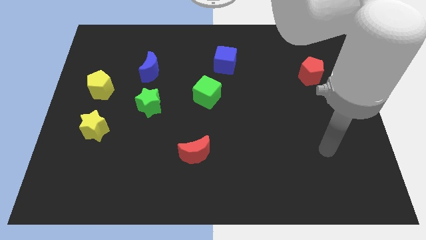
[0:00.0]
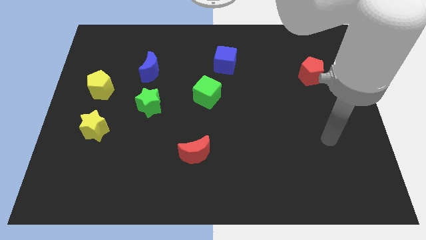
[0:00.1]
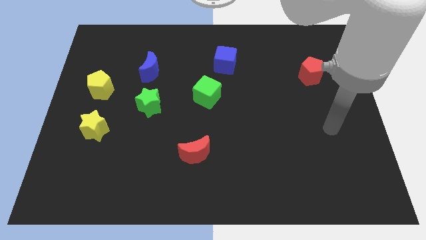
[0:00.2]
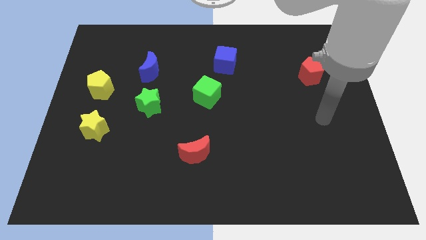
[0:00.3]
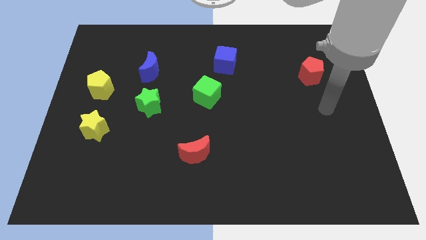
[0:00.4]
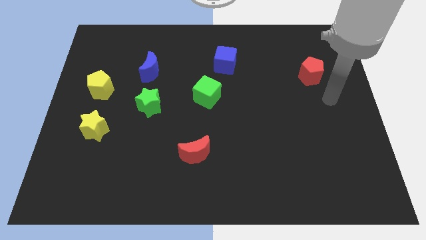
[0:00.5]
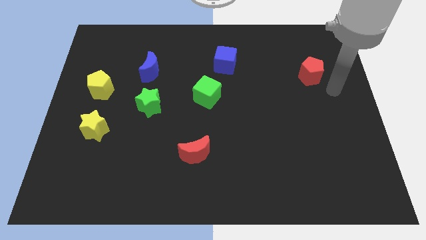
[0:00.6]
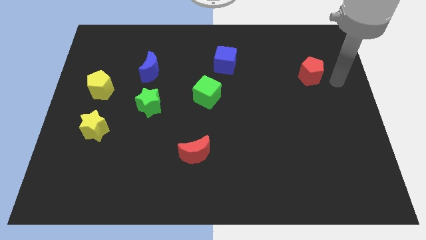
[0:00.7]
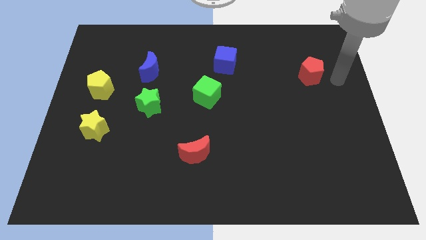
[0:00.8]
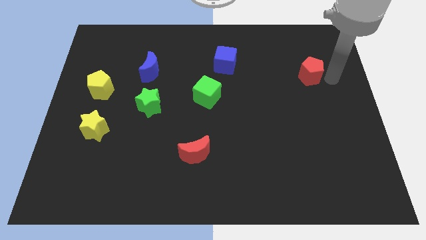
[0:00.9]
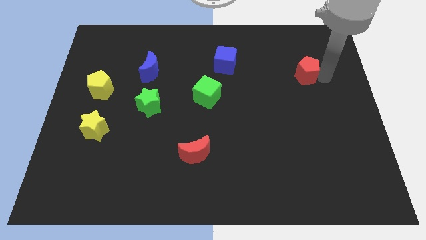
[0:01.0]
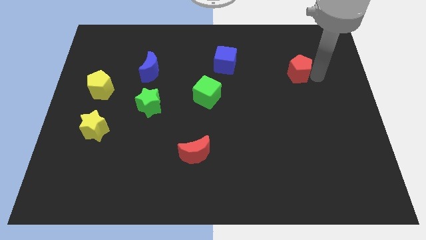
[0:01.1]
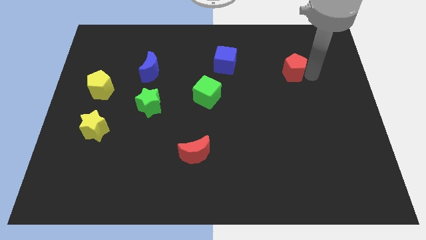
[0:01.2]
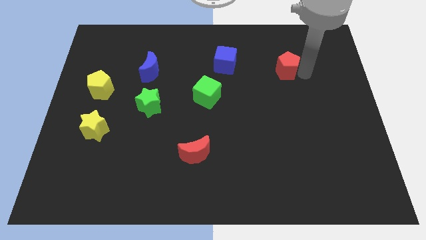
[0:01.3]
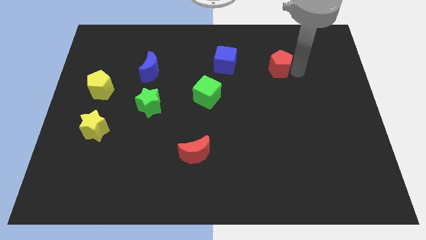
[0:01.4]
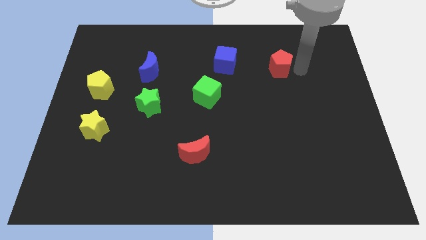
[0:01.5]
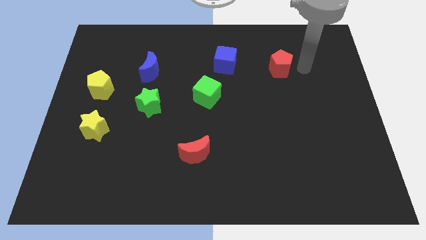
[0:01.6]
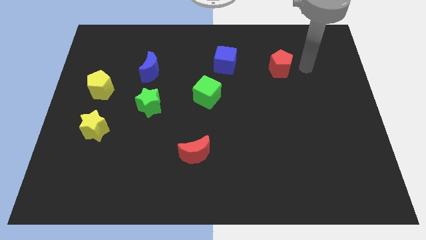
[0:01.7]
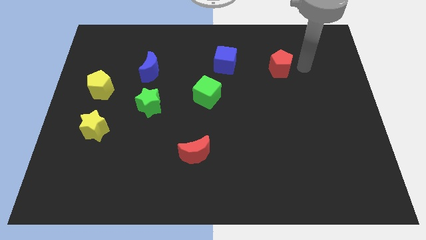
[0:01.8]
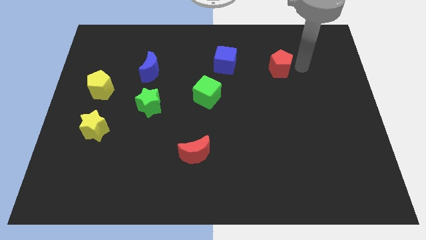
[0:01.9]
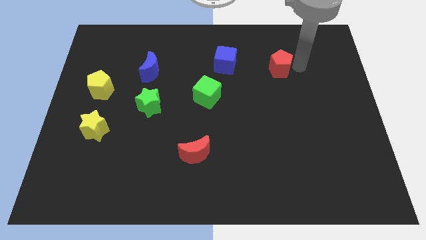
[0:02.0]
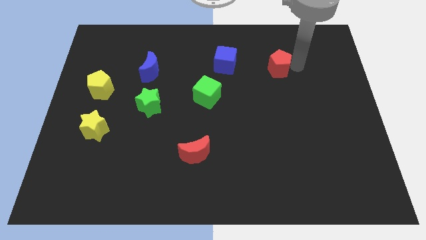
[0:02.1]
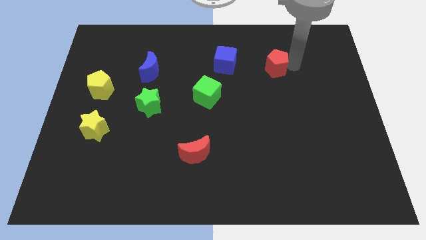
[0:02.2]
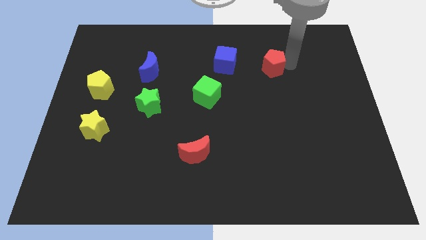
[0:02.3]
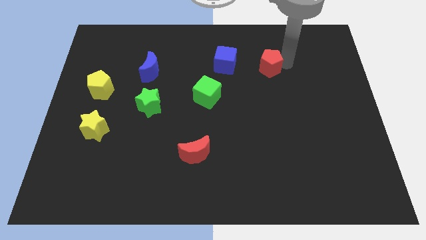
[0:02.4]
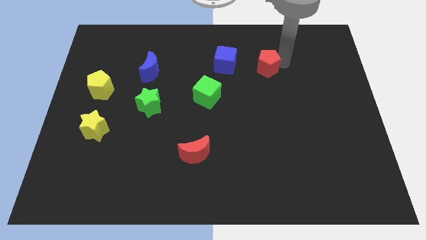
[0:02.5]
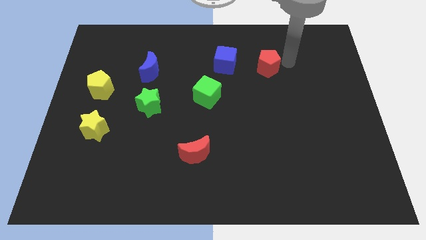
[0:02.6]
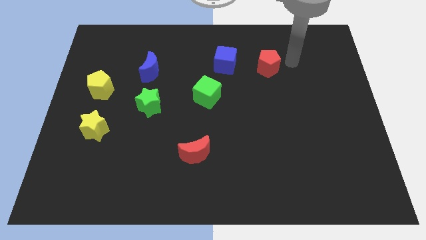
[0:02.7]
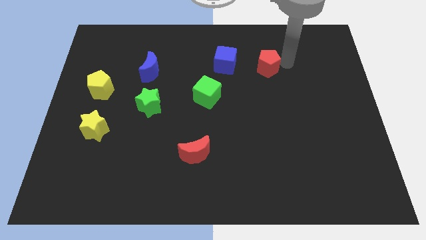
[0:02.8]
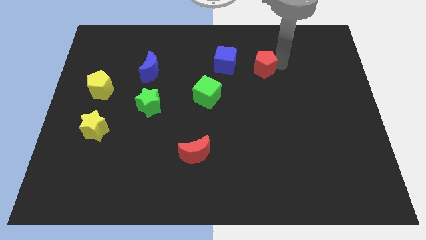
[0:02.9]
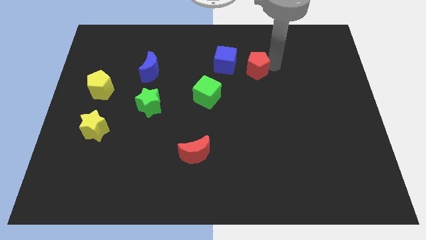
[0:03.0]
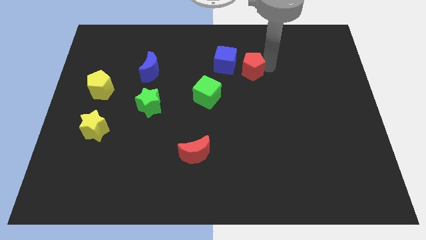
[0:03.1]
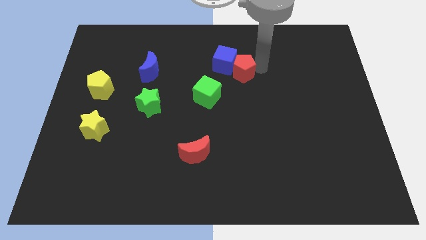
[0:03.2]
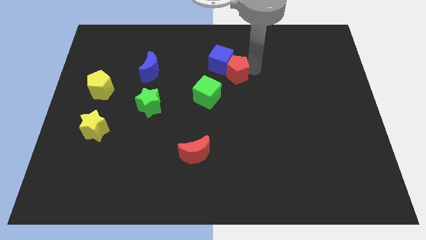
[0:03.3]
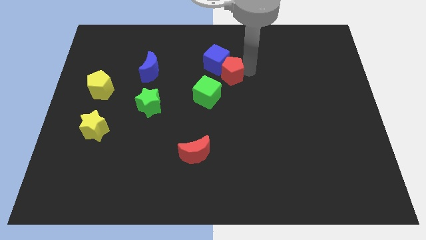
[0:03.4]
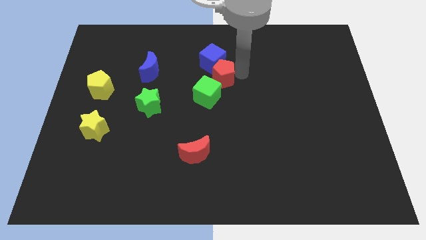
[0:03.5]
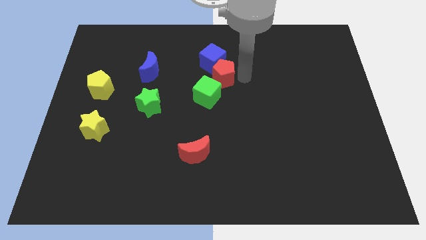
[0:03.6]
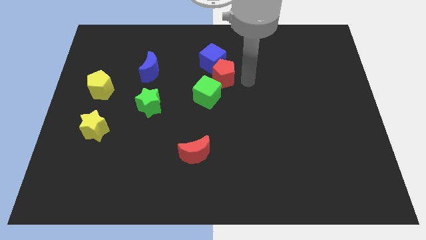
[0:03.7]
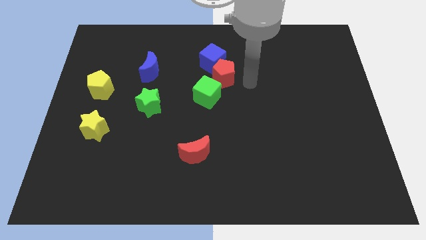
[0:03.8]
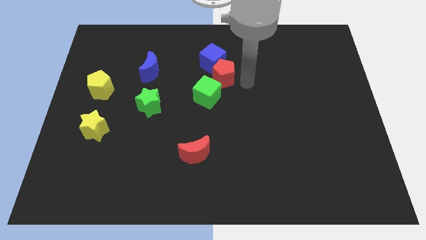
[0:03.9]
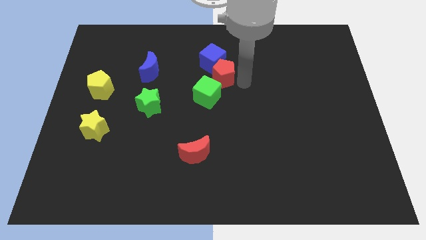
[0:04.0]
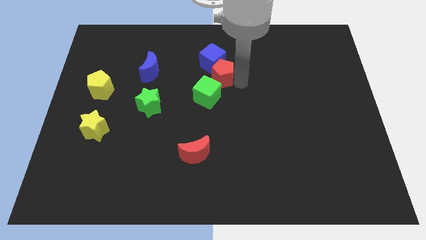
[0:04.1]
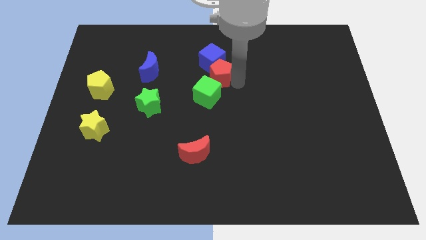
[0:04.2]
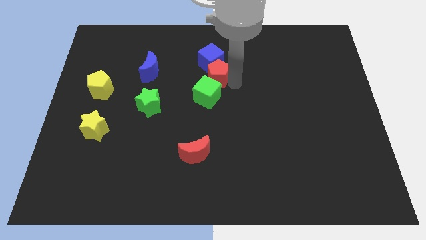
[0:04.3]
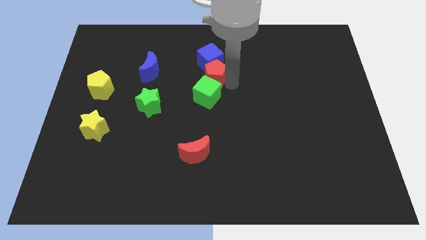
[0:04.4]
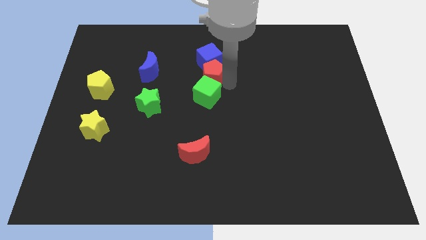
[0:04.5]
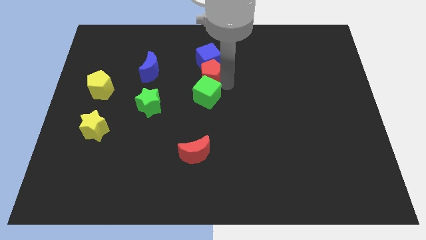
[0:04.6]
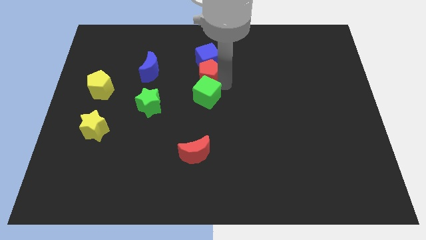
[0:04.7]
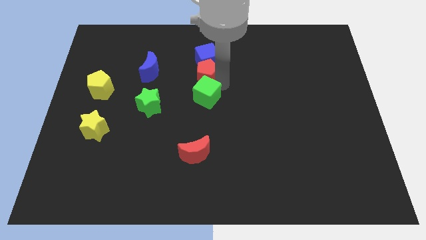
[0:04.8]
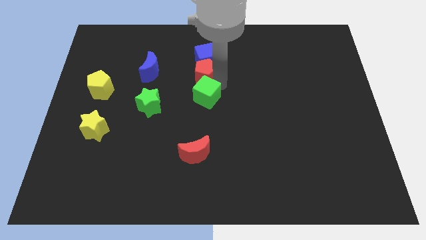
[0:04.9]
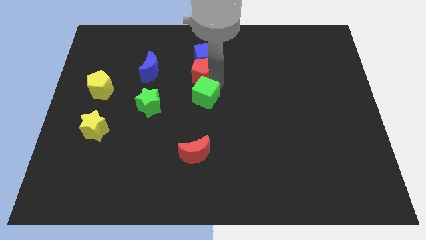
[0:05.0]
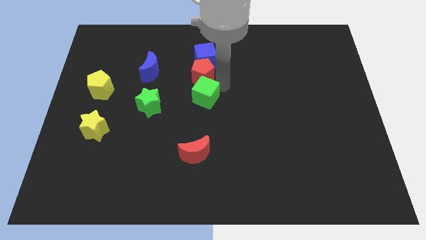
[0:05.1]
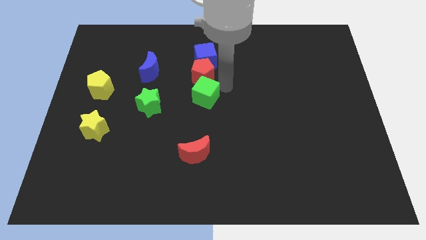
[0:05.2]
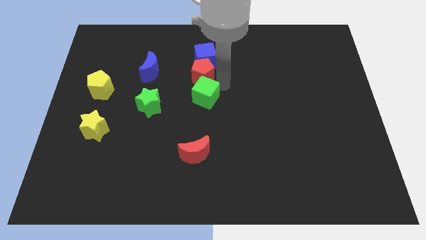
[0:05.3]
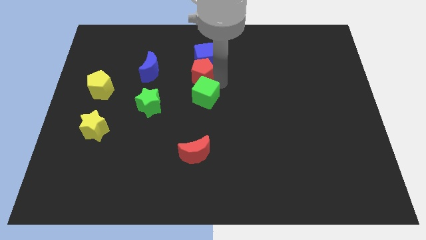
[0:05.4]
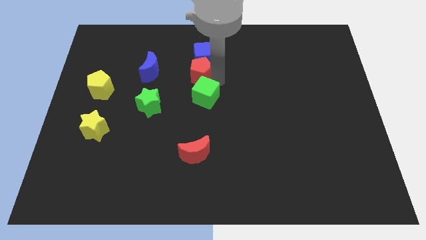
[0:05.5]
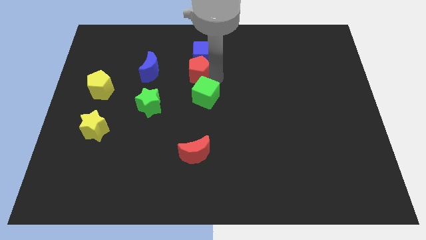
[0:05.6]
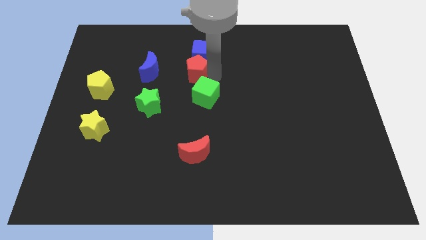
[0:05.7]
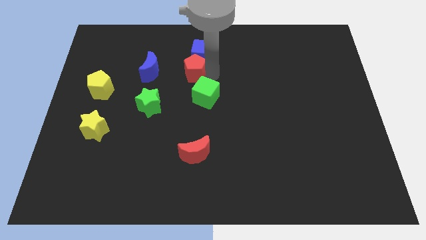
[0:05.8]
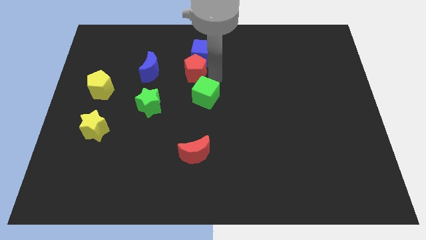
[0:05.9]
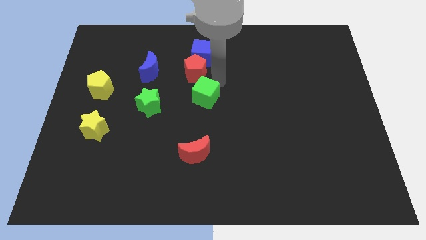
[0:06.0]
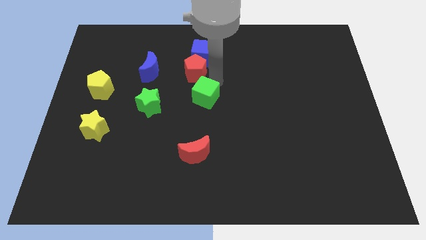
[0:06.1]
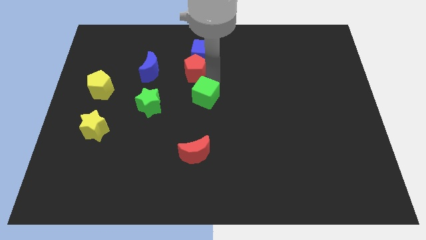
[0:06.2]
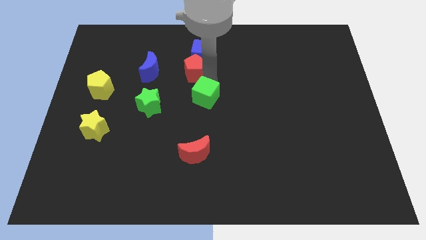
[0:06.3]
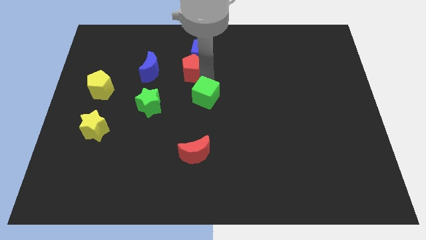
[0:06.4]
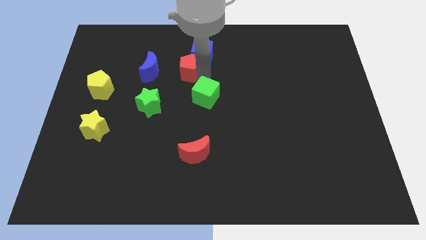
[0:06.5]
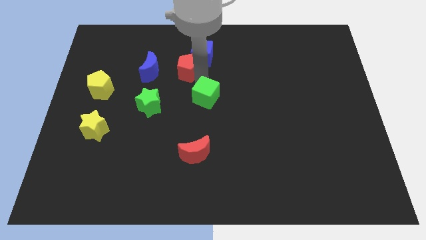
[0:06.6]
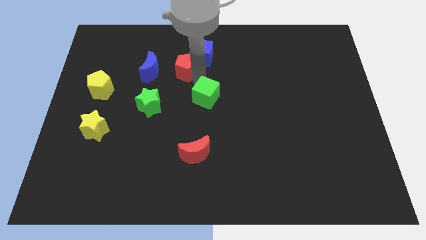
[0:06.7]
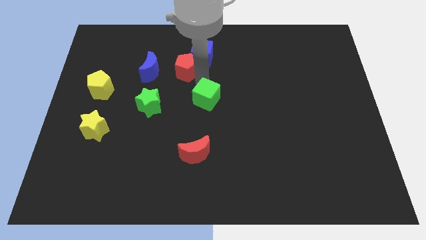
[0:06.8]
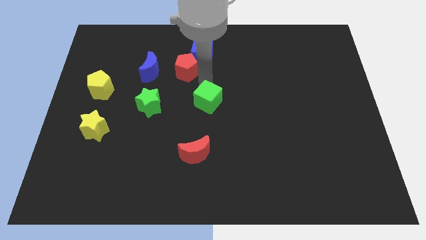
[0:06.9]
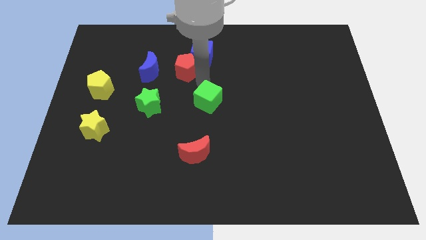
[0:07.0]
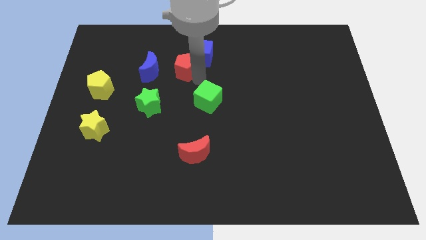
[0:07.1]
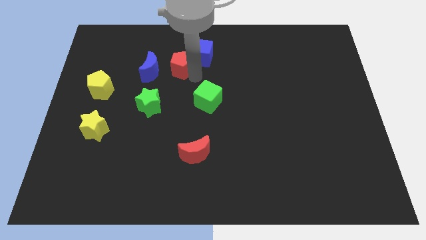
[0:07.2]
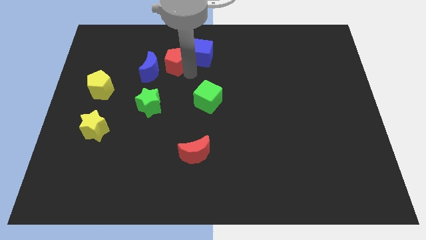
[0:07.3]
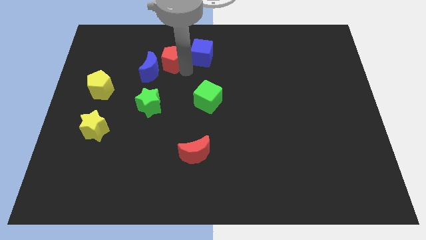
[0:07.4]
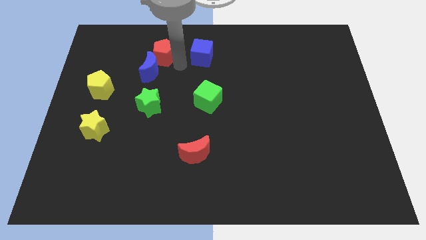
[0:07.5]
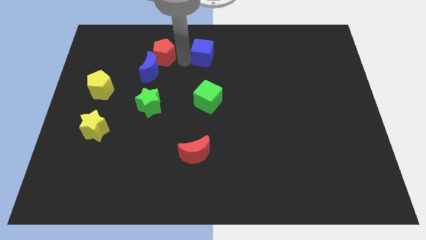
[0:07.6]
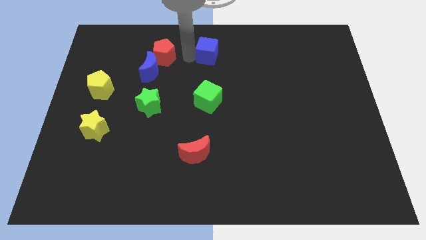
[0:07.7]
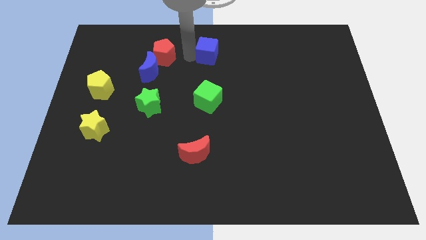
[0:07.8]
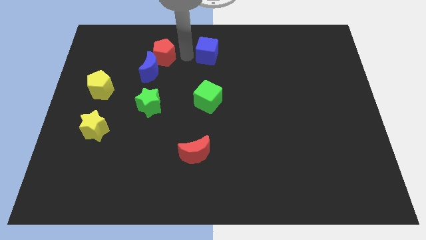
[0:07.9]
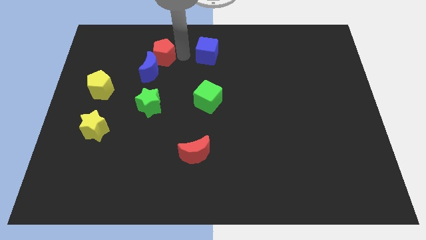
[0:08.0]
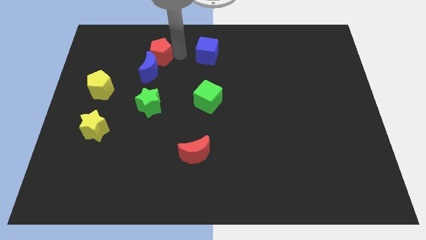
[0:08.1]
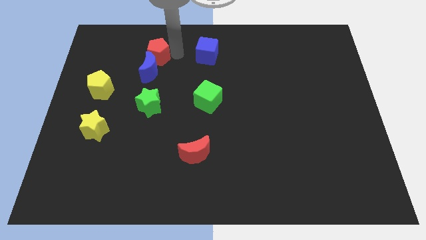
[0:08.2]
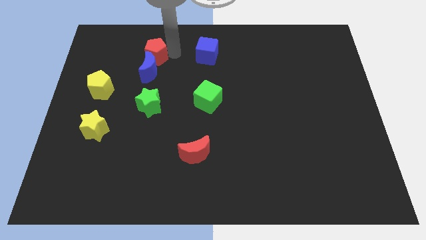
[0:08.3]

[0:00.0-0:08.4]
push the red pentagon diagonally up and to the left of the blue moon
